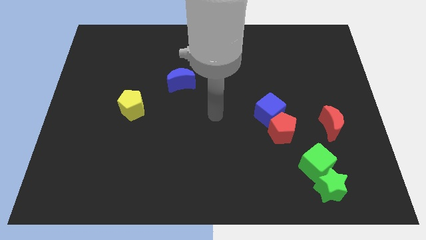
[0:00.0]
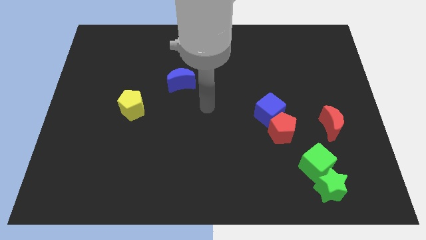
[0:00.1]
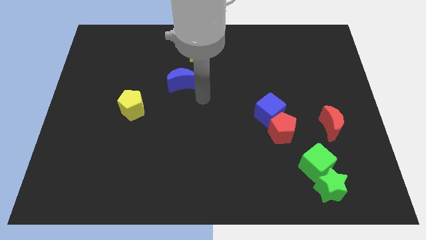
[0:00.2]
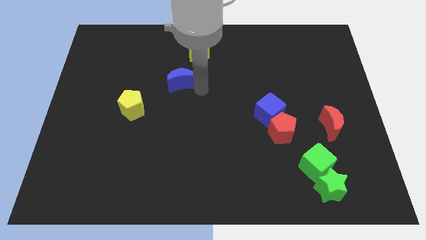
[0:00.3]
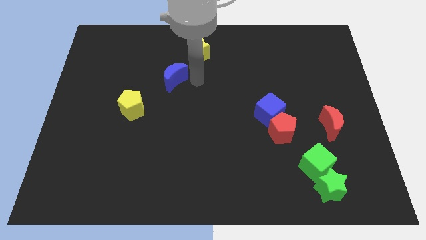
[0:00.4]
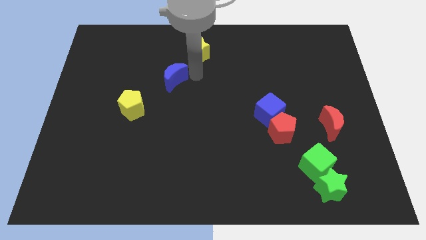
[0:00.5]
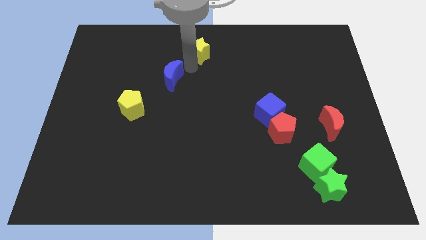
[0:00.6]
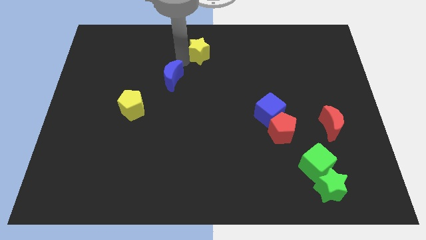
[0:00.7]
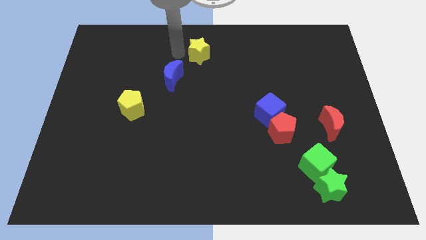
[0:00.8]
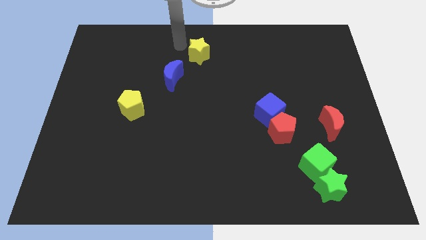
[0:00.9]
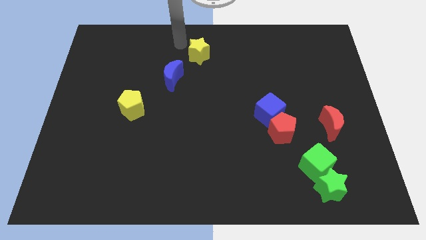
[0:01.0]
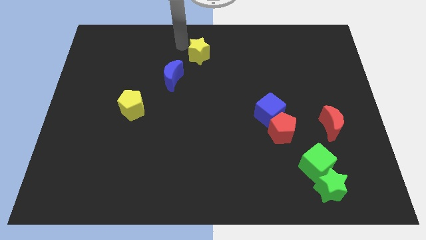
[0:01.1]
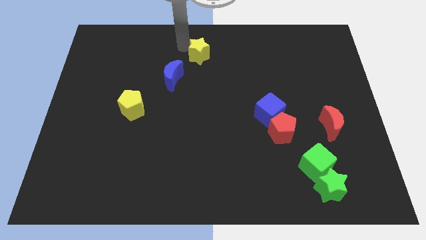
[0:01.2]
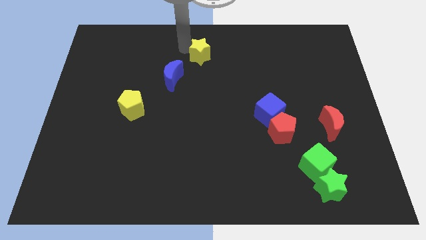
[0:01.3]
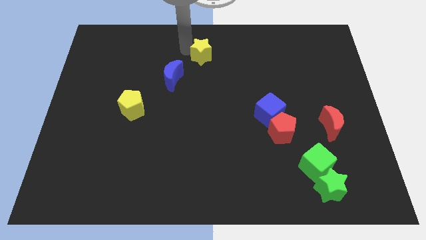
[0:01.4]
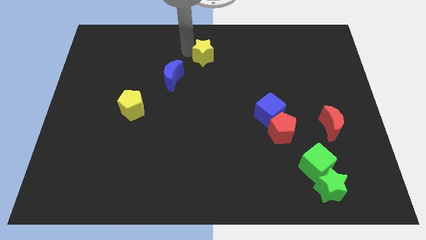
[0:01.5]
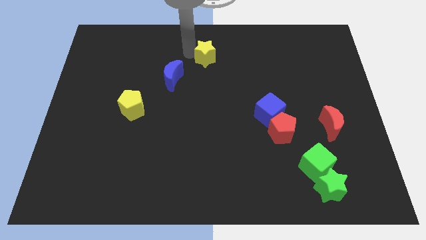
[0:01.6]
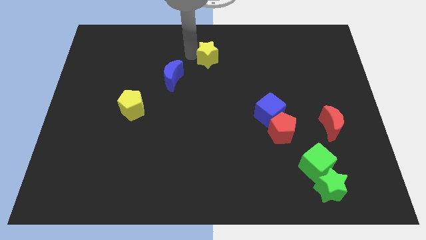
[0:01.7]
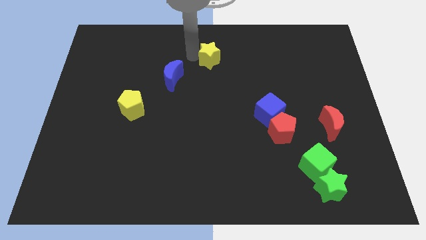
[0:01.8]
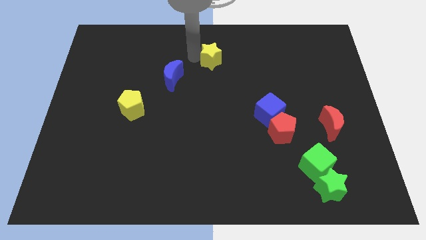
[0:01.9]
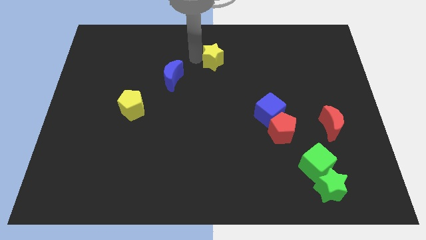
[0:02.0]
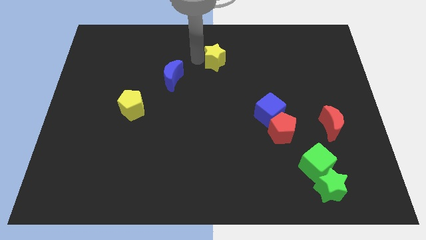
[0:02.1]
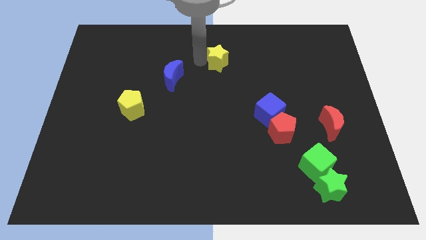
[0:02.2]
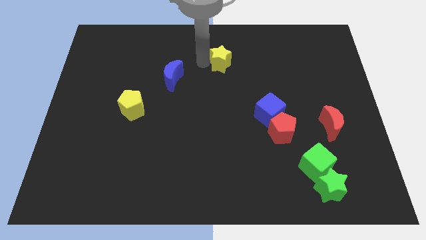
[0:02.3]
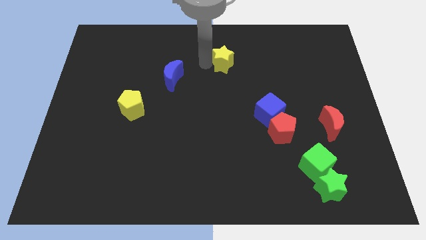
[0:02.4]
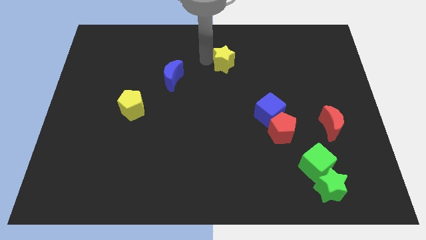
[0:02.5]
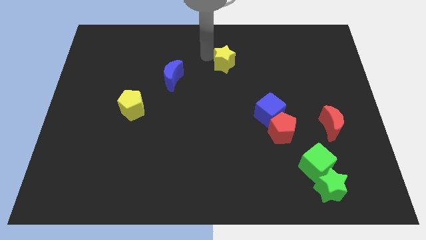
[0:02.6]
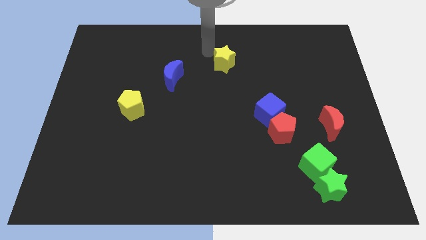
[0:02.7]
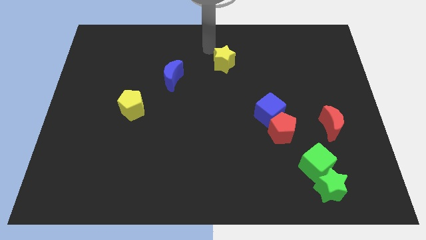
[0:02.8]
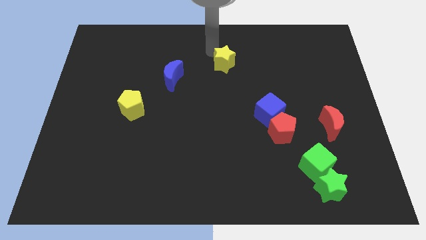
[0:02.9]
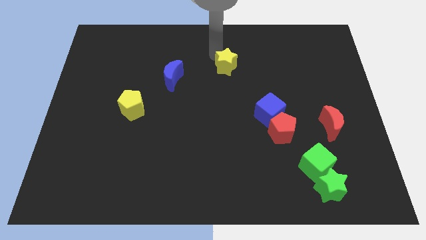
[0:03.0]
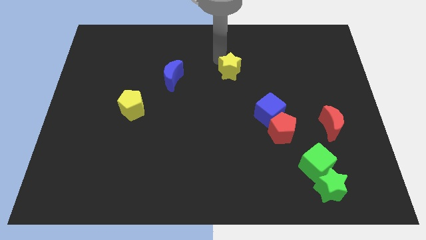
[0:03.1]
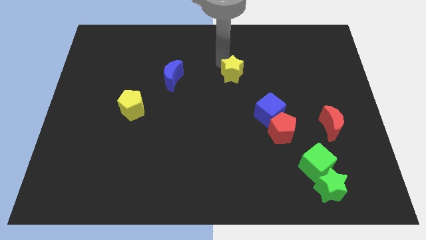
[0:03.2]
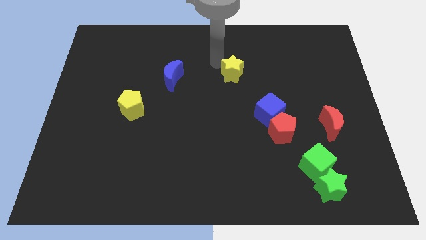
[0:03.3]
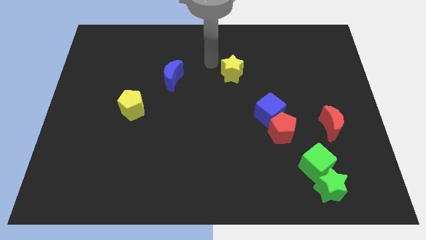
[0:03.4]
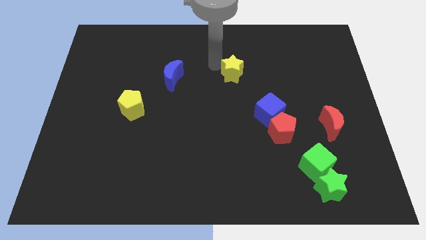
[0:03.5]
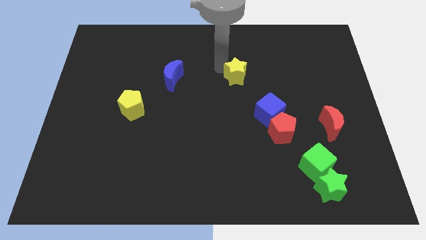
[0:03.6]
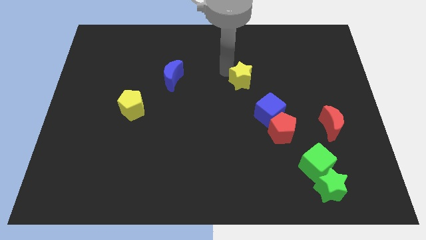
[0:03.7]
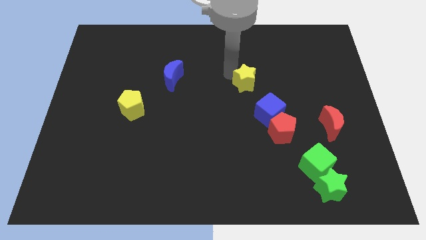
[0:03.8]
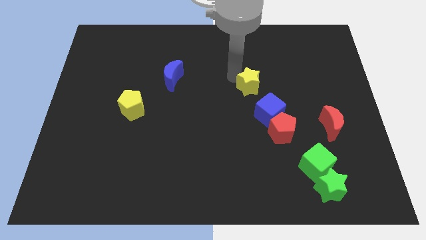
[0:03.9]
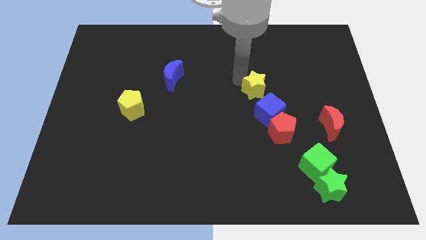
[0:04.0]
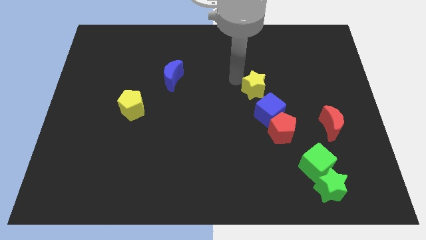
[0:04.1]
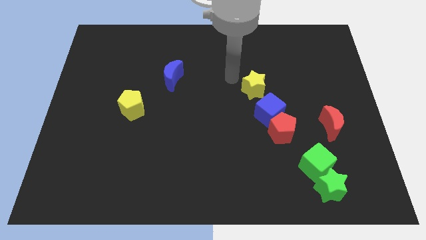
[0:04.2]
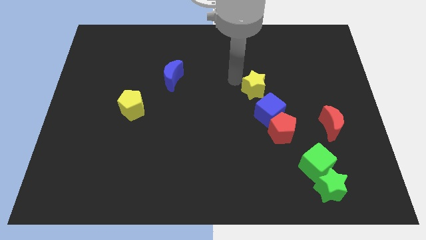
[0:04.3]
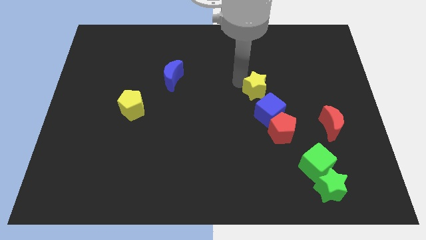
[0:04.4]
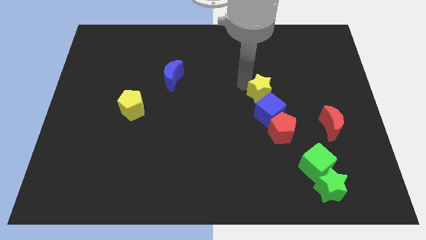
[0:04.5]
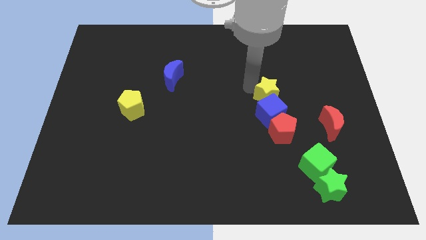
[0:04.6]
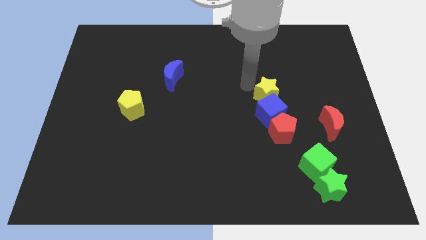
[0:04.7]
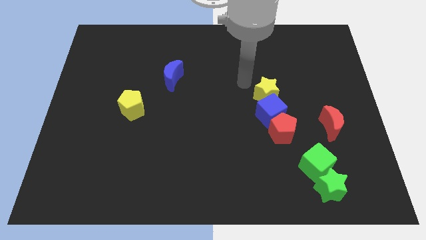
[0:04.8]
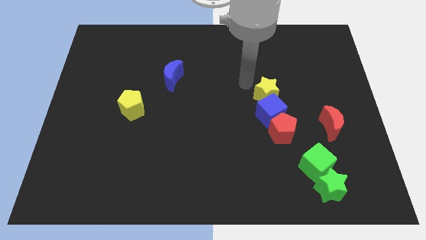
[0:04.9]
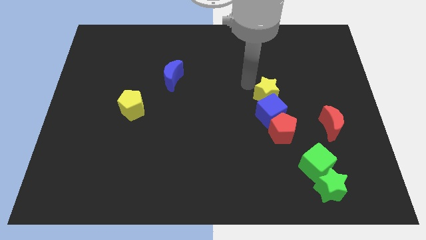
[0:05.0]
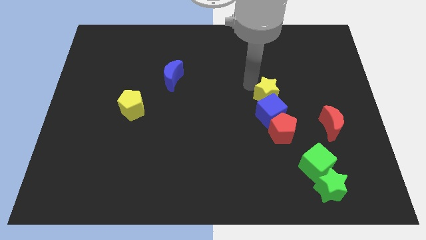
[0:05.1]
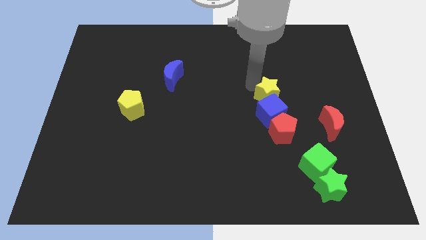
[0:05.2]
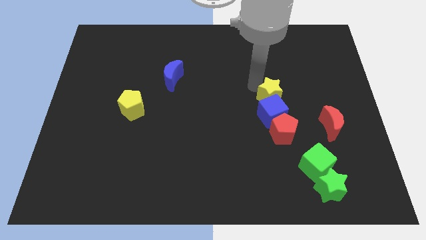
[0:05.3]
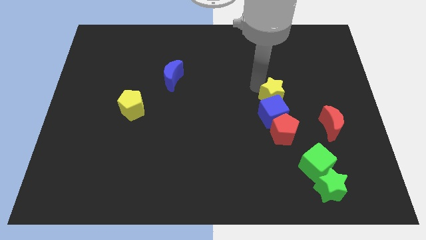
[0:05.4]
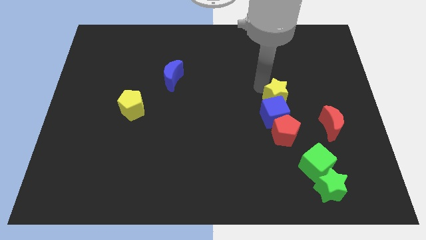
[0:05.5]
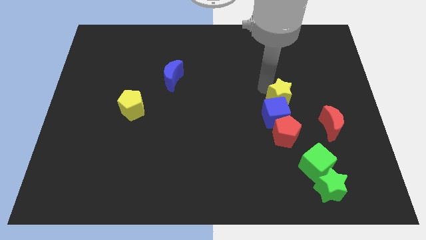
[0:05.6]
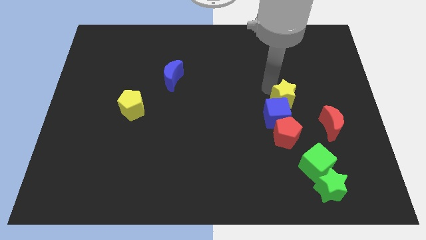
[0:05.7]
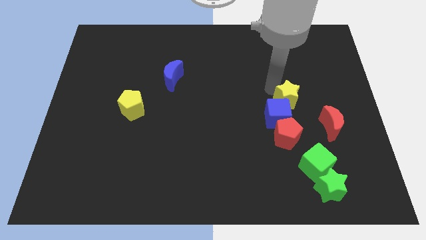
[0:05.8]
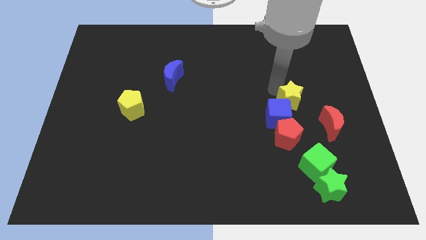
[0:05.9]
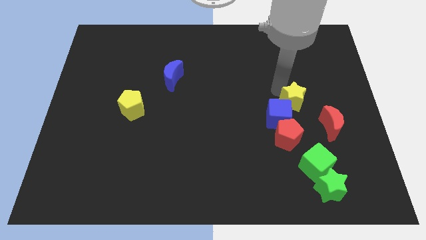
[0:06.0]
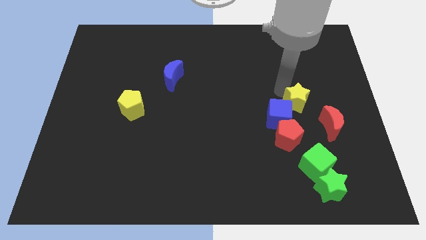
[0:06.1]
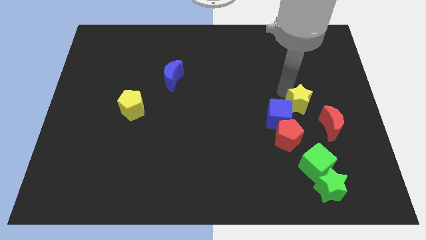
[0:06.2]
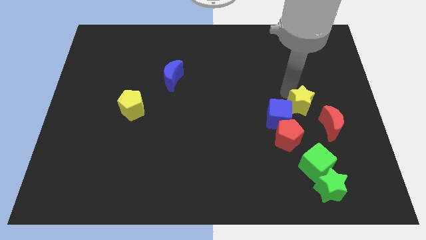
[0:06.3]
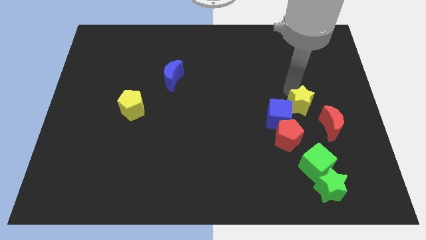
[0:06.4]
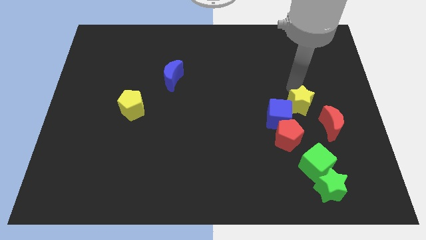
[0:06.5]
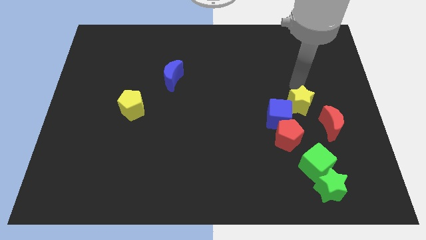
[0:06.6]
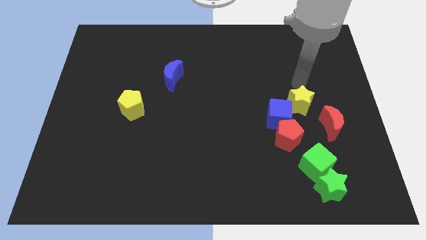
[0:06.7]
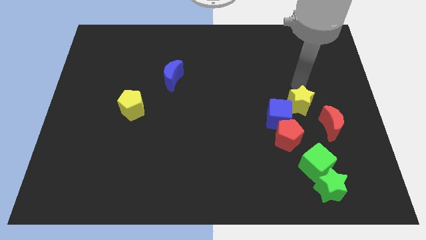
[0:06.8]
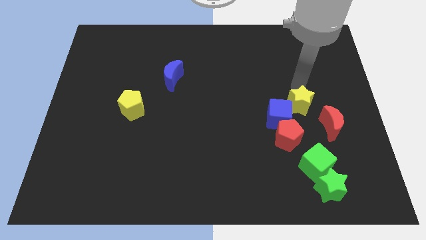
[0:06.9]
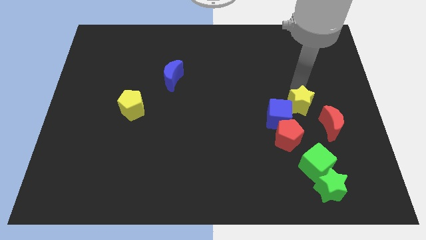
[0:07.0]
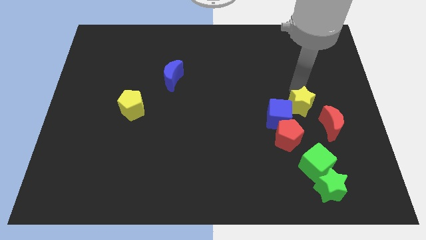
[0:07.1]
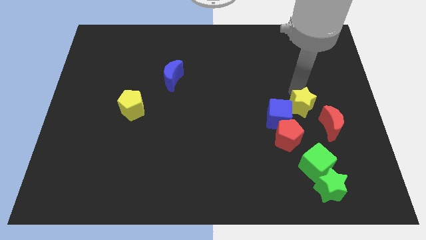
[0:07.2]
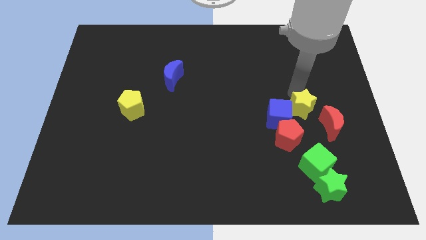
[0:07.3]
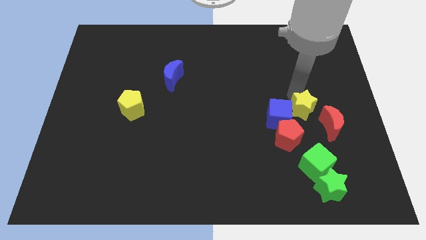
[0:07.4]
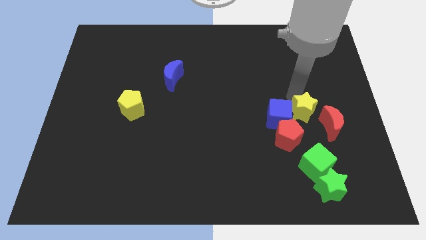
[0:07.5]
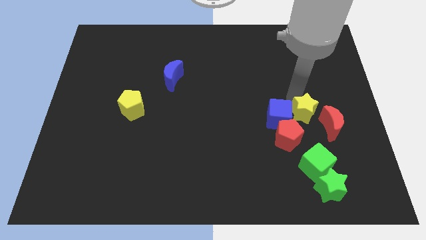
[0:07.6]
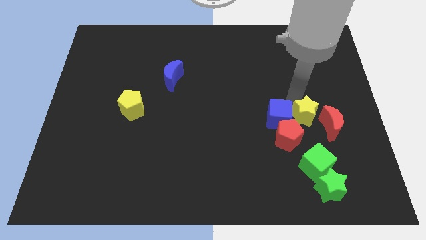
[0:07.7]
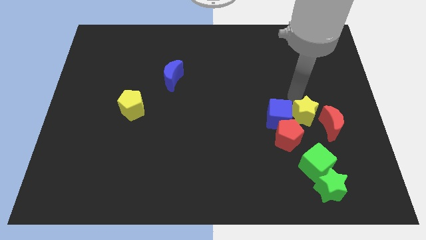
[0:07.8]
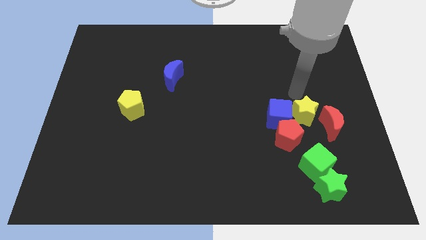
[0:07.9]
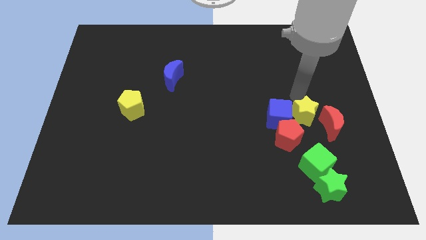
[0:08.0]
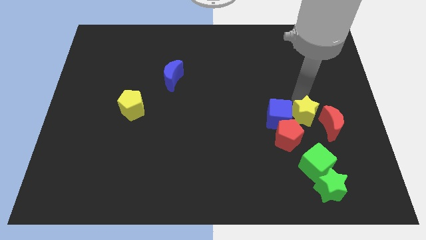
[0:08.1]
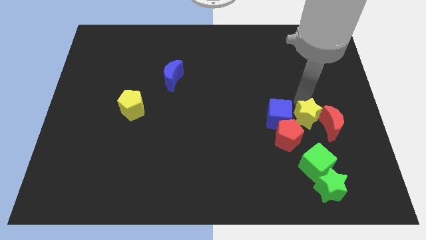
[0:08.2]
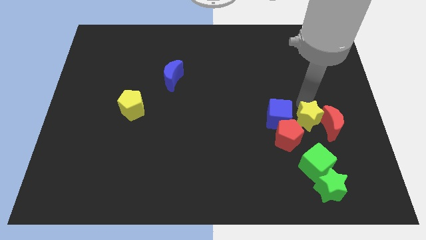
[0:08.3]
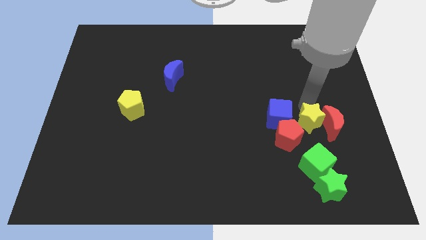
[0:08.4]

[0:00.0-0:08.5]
push the yellow star to the bottom left of the red moon
